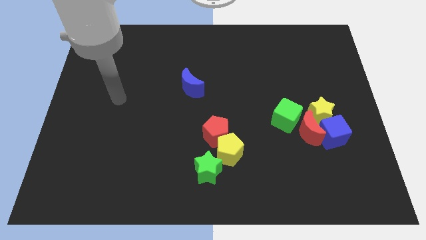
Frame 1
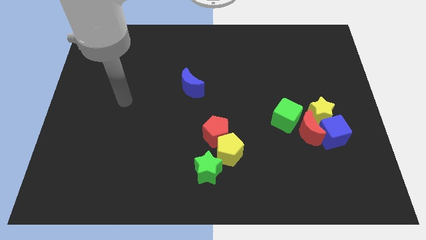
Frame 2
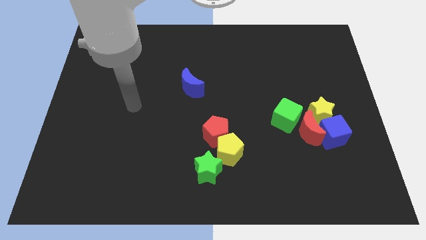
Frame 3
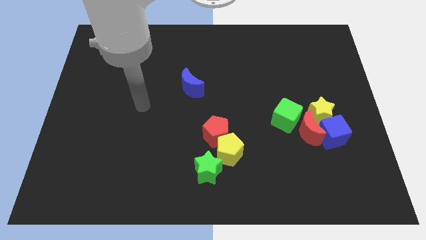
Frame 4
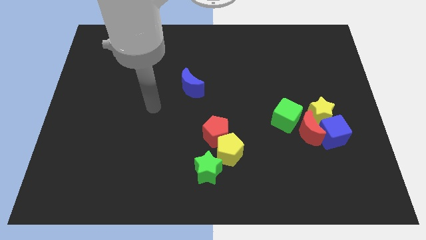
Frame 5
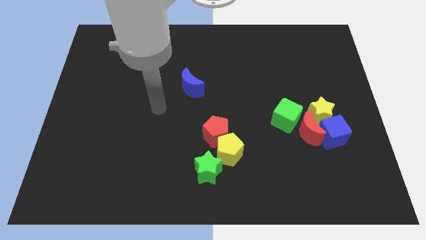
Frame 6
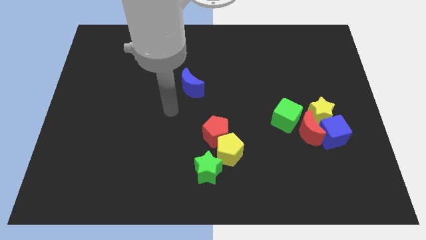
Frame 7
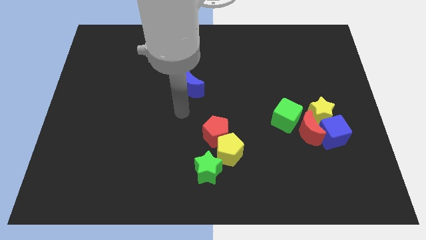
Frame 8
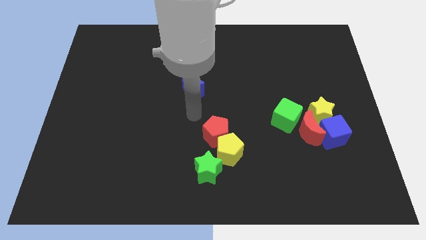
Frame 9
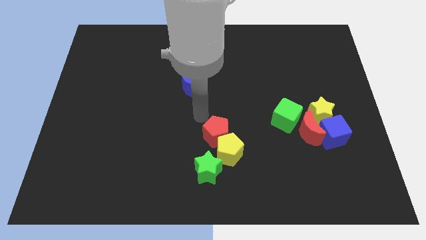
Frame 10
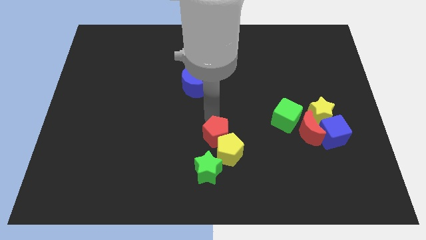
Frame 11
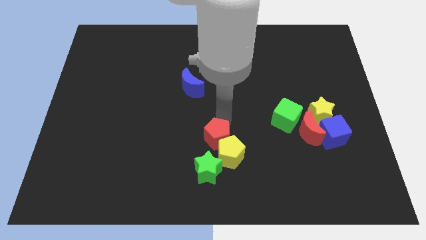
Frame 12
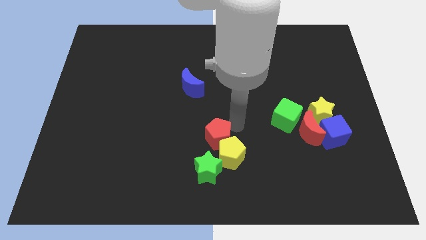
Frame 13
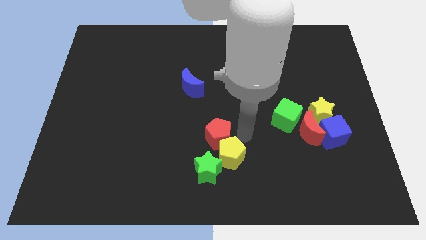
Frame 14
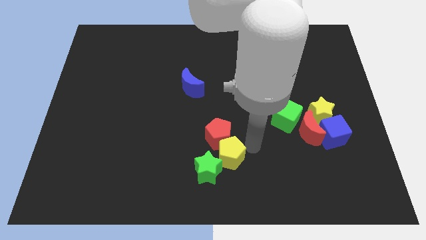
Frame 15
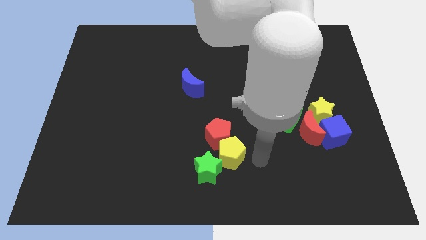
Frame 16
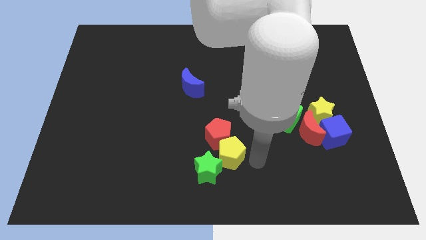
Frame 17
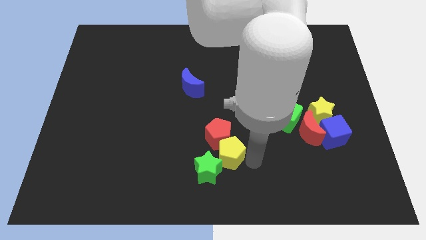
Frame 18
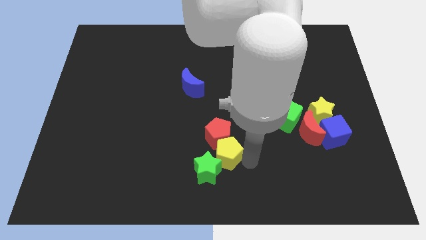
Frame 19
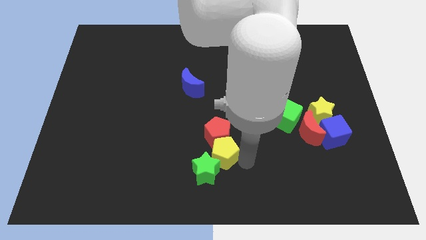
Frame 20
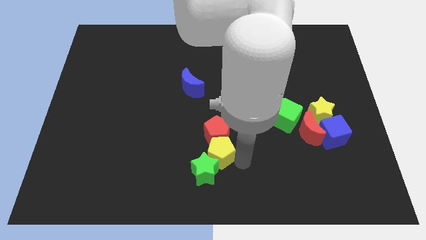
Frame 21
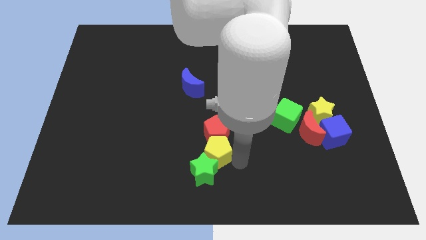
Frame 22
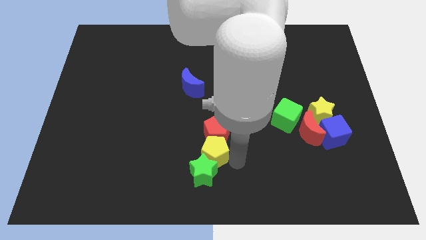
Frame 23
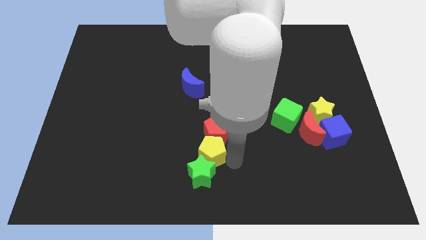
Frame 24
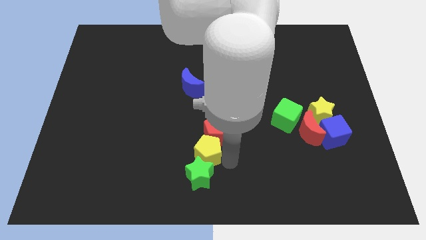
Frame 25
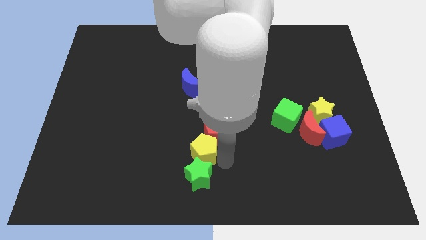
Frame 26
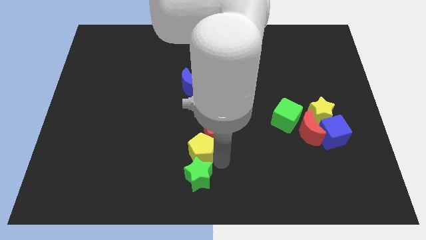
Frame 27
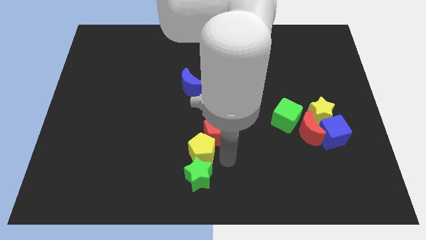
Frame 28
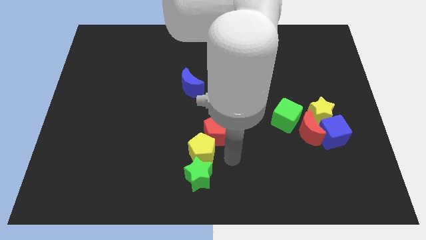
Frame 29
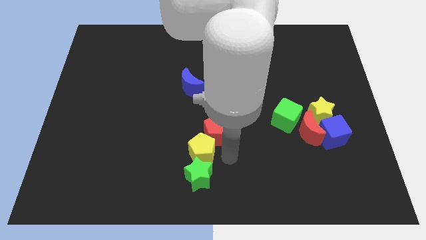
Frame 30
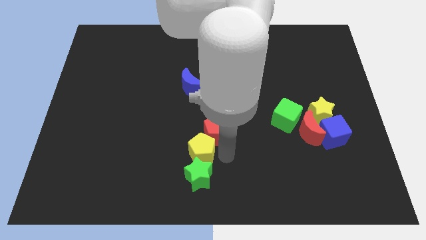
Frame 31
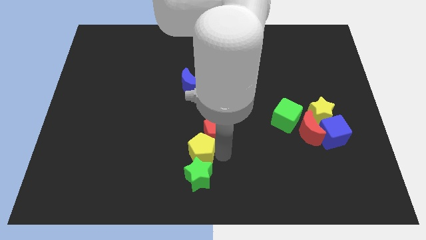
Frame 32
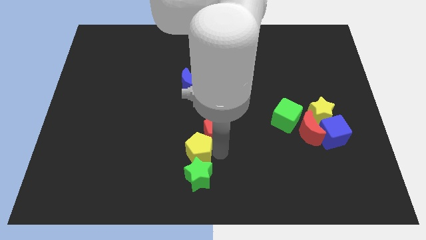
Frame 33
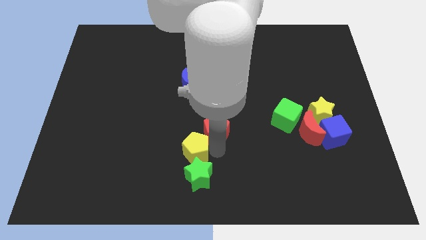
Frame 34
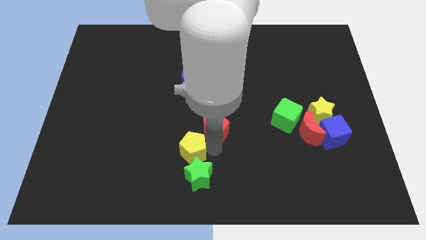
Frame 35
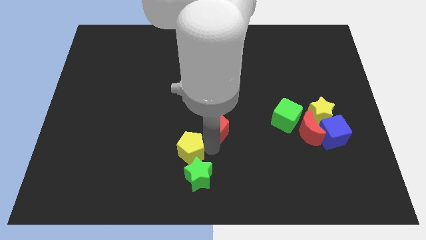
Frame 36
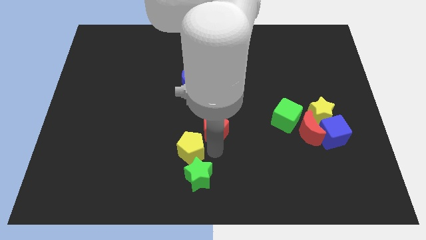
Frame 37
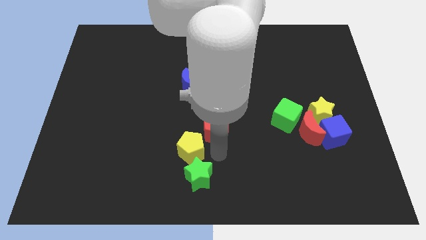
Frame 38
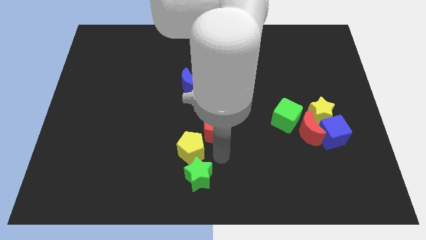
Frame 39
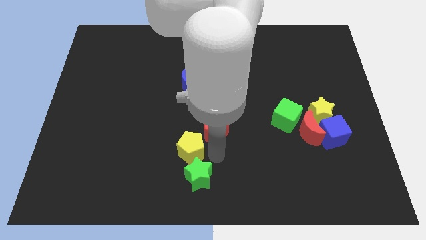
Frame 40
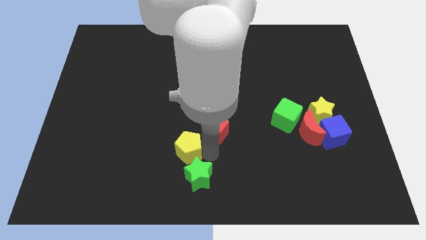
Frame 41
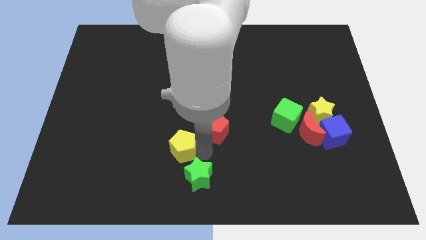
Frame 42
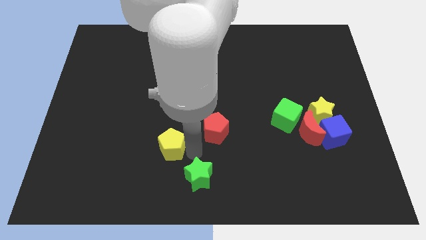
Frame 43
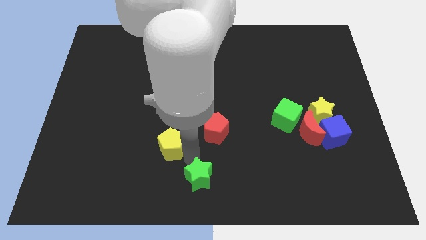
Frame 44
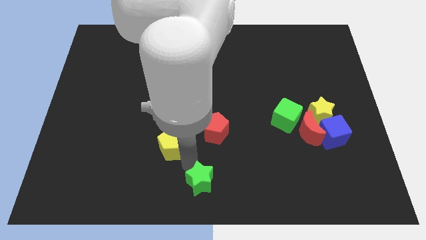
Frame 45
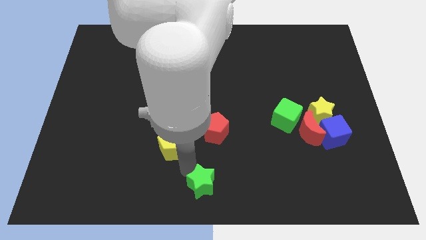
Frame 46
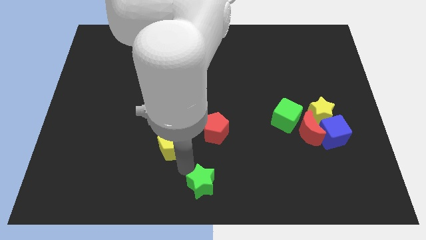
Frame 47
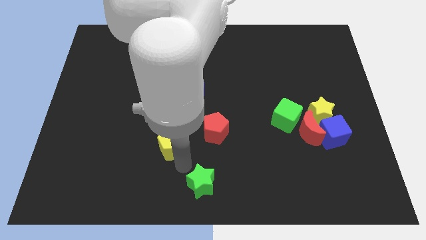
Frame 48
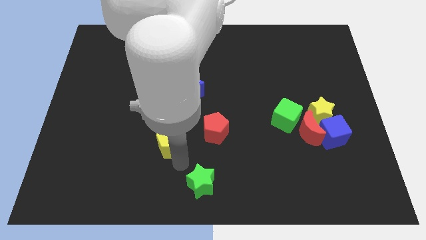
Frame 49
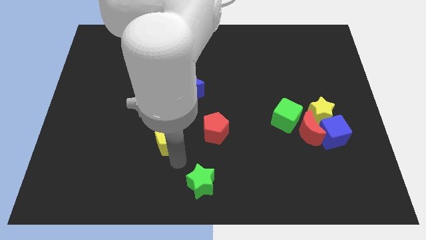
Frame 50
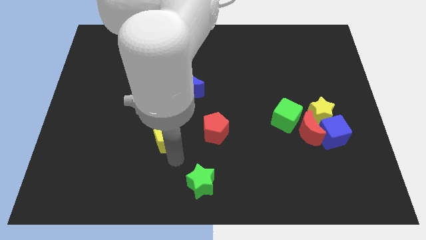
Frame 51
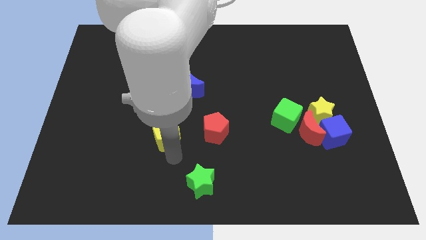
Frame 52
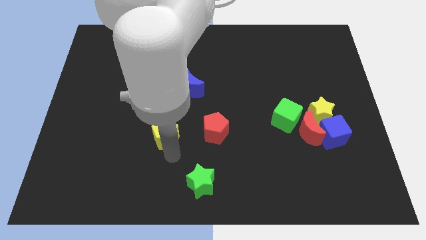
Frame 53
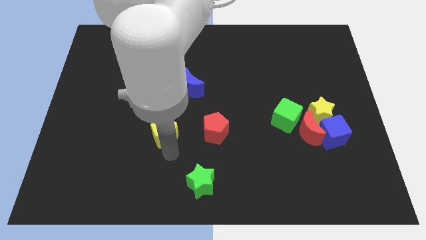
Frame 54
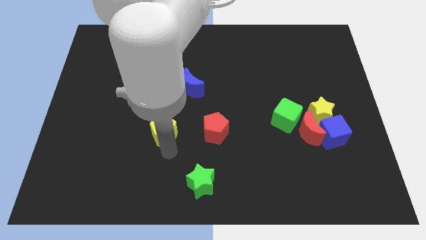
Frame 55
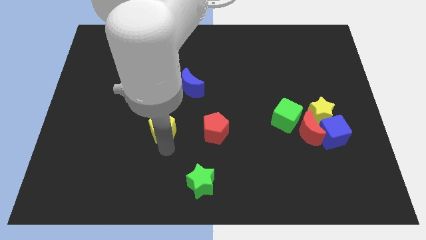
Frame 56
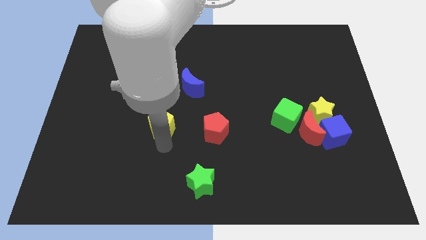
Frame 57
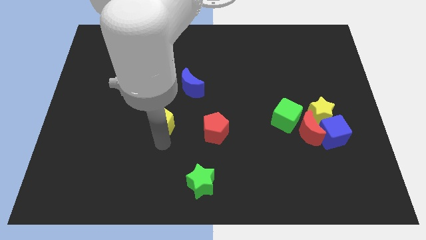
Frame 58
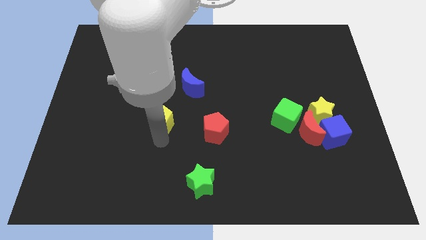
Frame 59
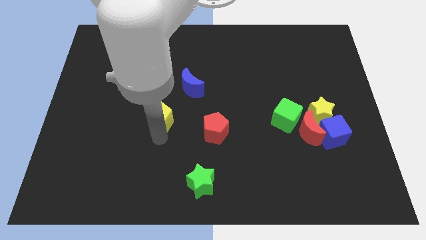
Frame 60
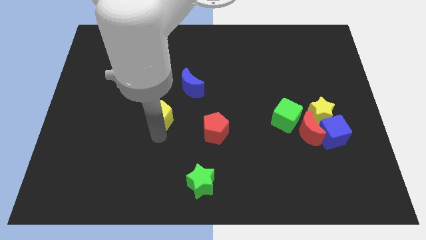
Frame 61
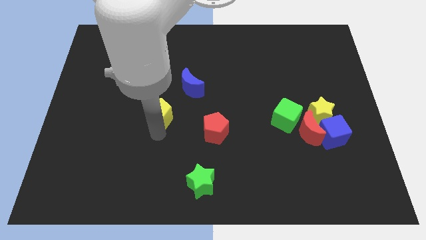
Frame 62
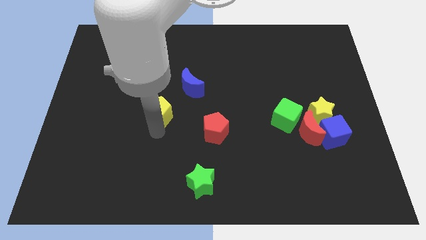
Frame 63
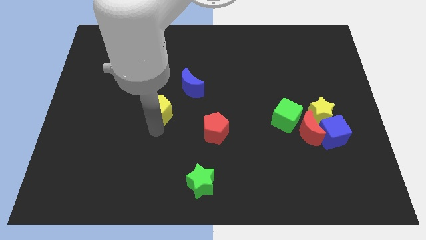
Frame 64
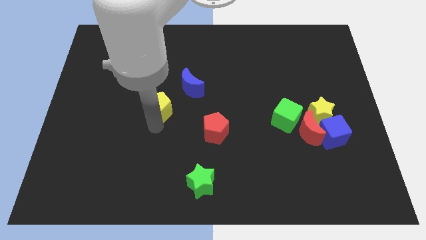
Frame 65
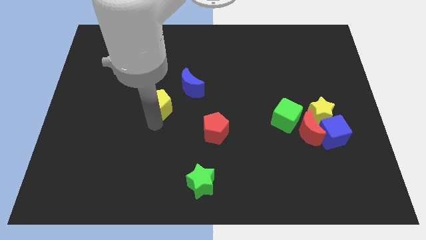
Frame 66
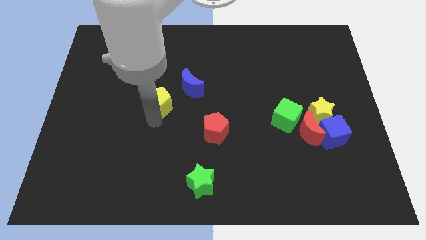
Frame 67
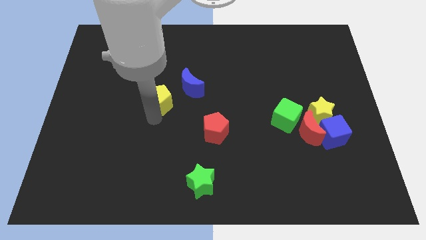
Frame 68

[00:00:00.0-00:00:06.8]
move the yellow pentagon left of the blue moon
